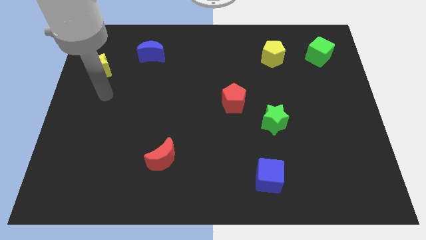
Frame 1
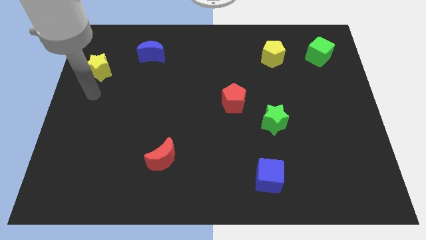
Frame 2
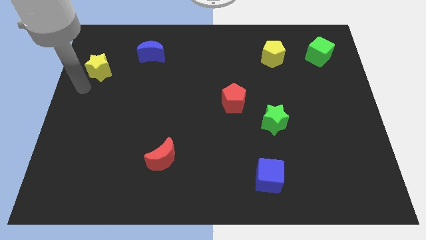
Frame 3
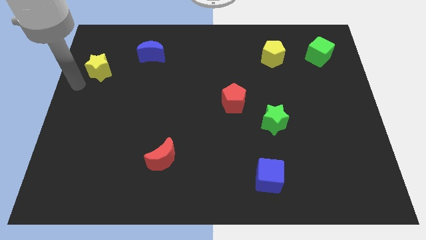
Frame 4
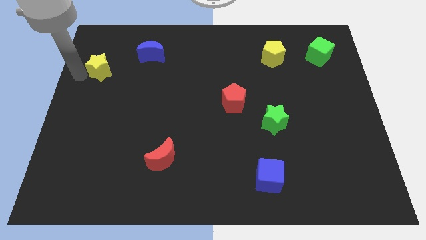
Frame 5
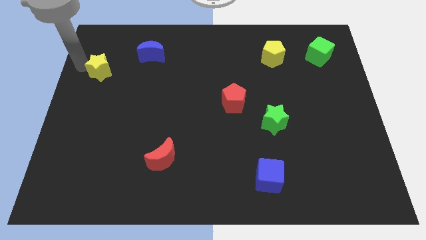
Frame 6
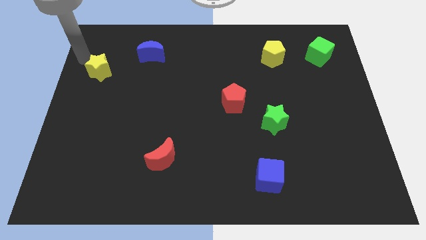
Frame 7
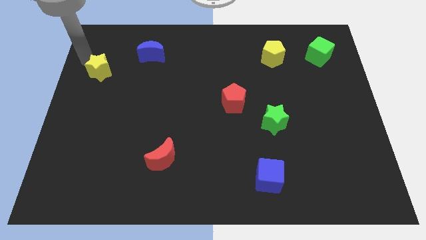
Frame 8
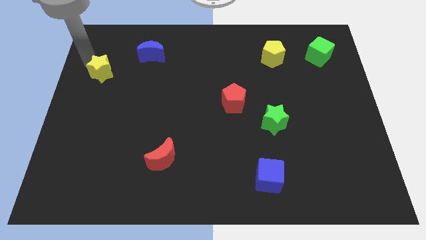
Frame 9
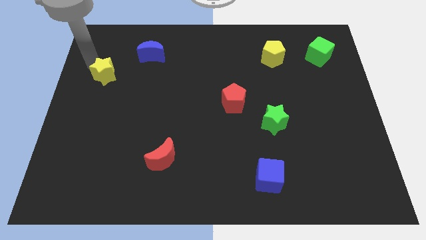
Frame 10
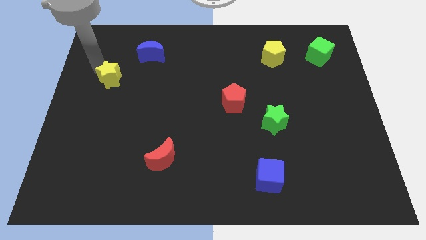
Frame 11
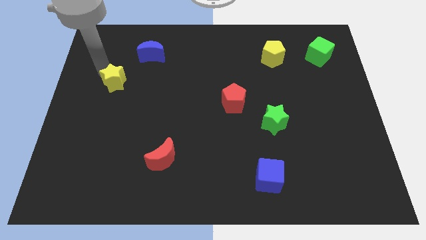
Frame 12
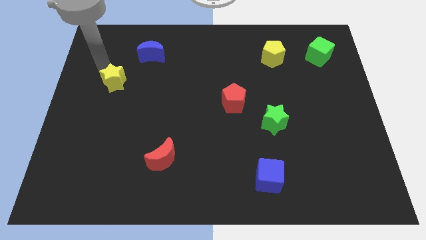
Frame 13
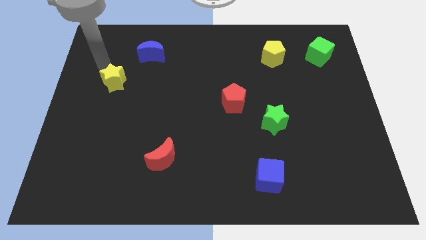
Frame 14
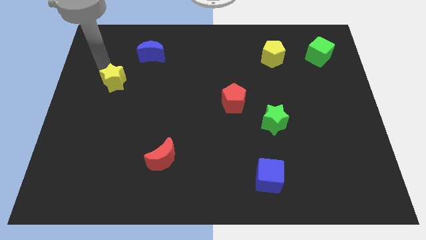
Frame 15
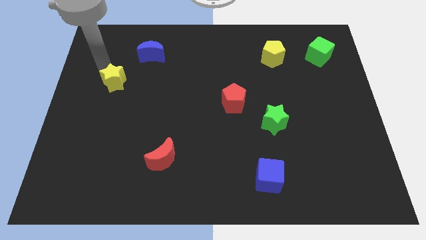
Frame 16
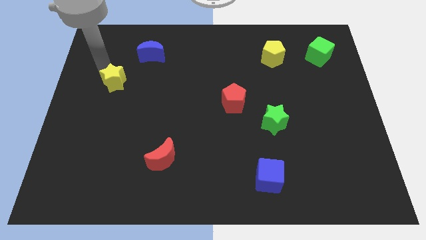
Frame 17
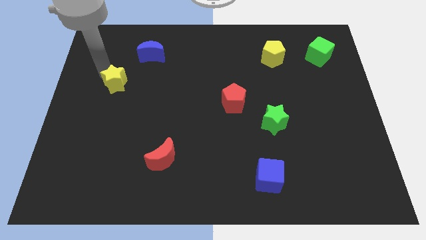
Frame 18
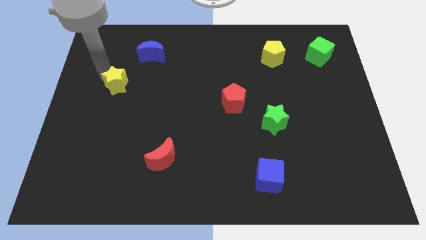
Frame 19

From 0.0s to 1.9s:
slightly slide the yellow star downwards and right

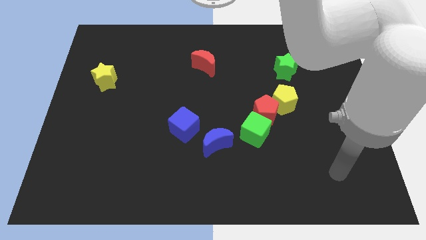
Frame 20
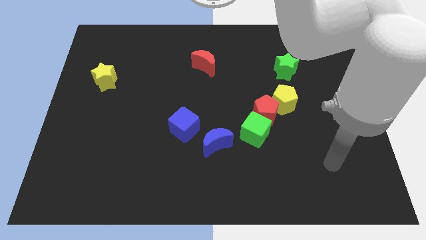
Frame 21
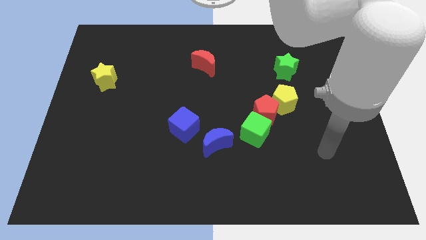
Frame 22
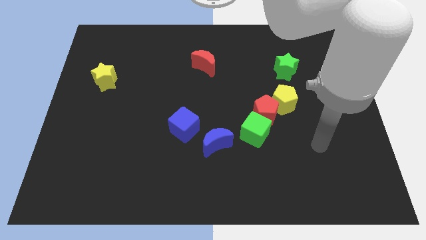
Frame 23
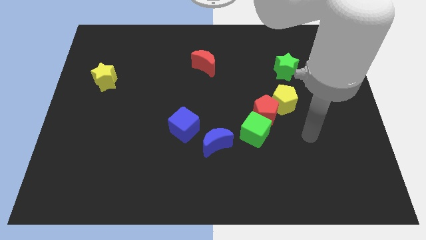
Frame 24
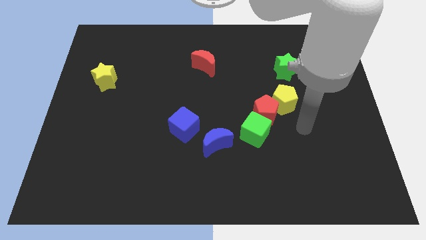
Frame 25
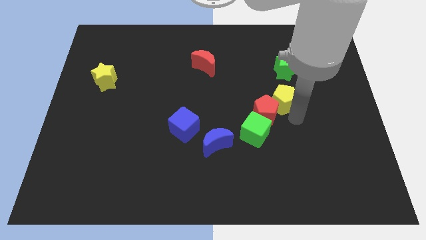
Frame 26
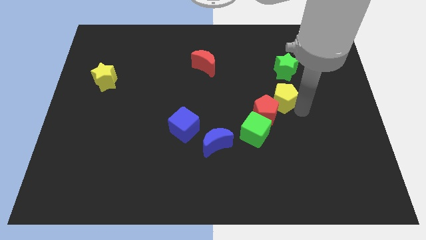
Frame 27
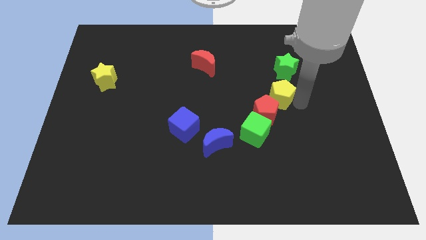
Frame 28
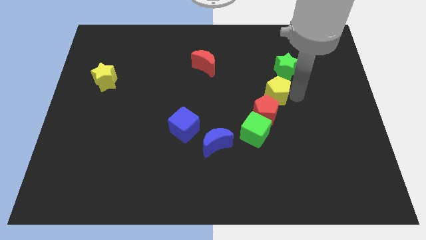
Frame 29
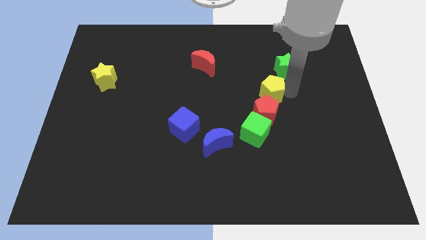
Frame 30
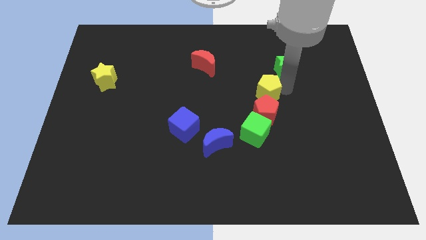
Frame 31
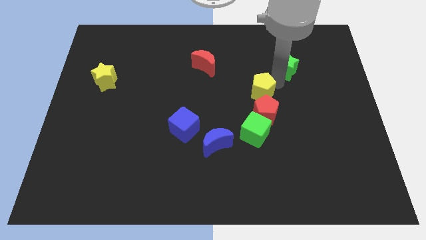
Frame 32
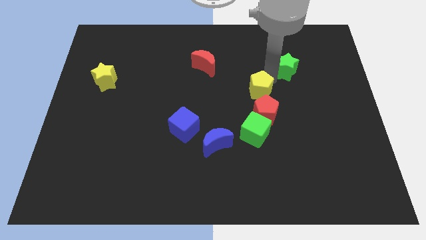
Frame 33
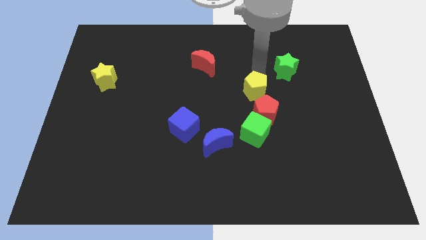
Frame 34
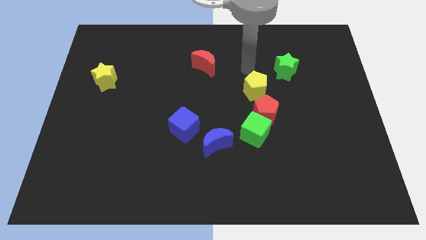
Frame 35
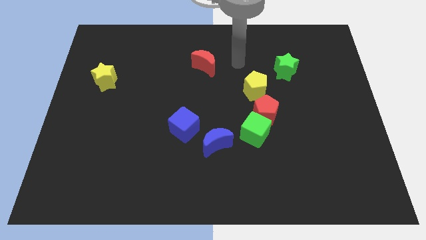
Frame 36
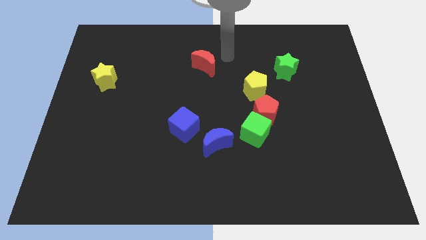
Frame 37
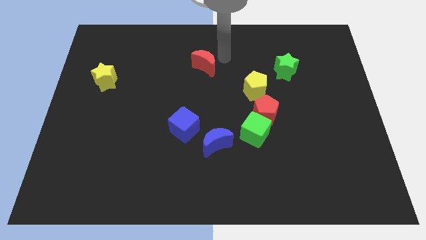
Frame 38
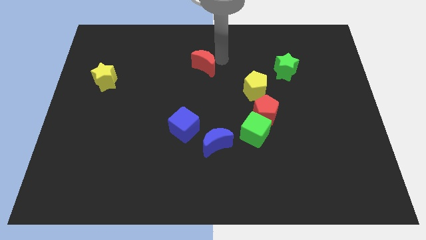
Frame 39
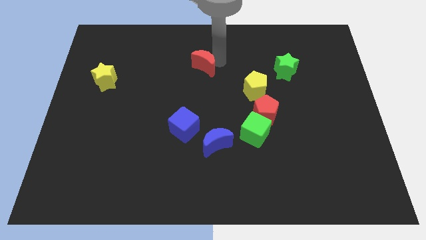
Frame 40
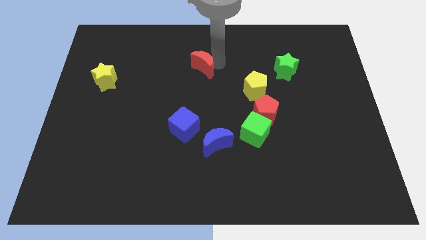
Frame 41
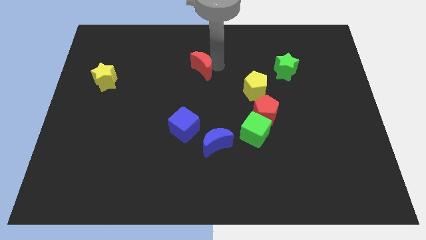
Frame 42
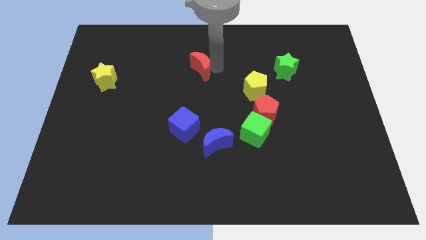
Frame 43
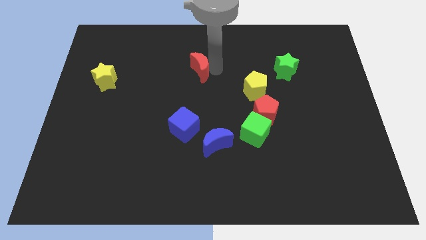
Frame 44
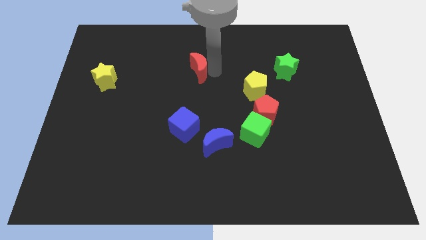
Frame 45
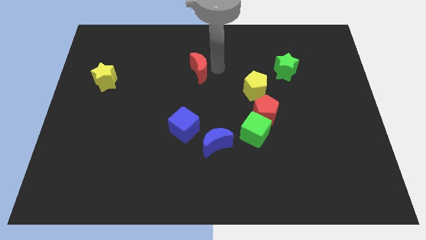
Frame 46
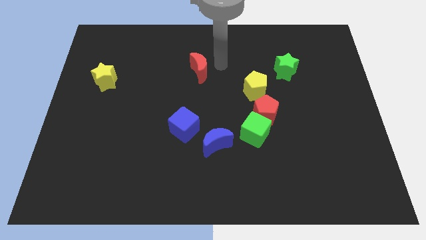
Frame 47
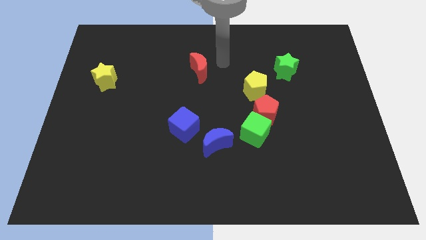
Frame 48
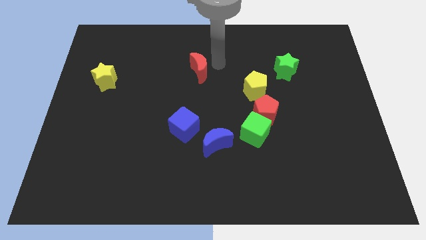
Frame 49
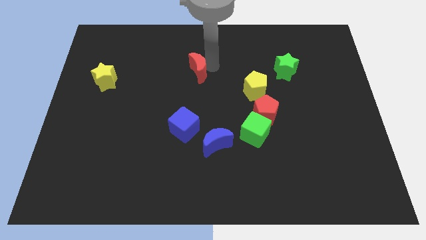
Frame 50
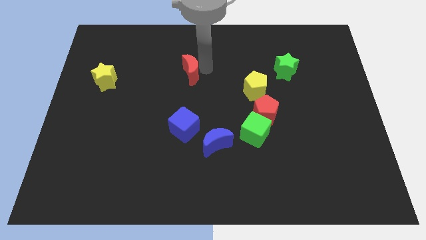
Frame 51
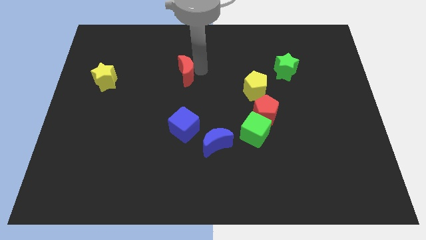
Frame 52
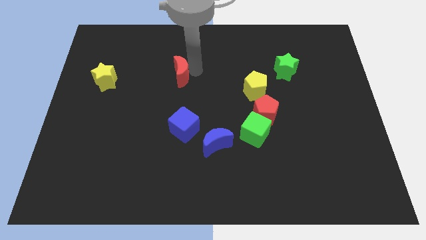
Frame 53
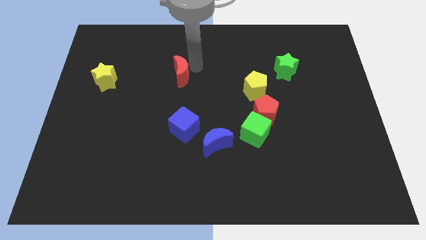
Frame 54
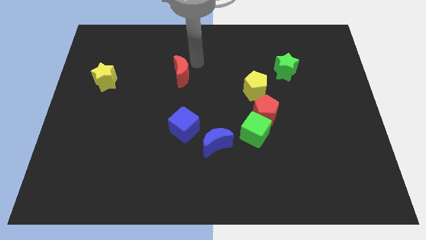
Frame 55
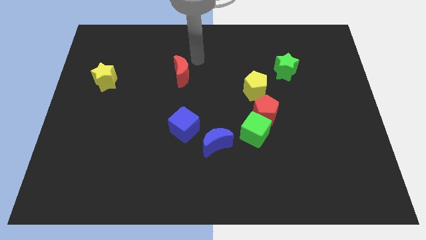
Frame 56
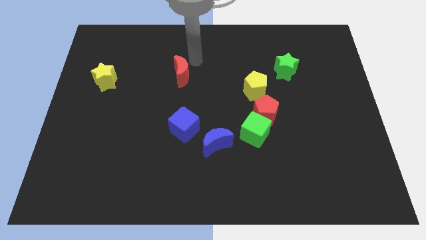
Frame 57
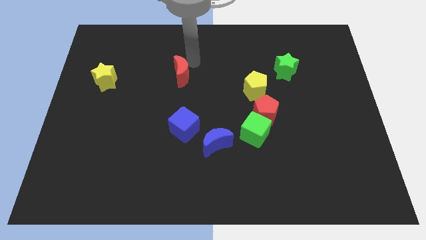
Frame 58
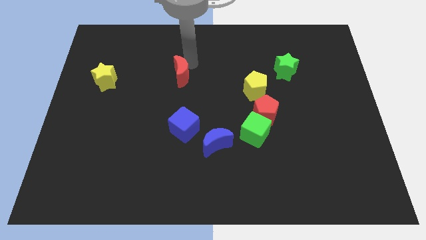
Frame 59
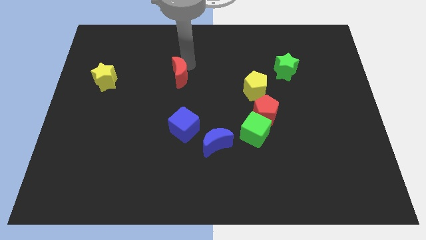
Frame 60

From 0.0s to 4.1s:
slightly slide the red moon diagonally down and left

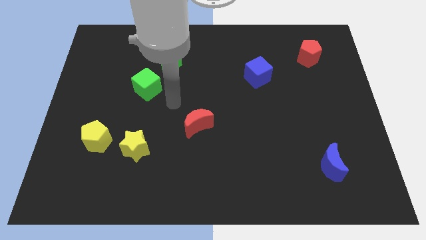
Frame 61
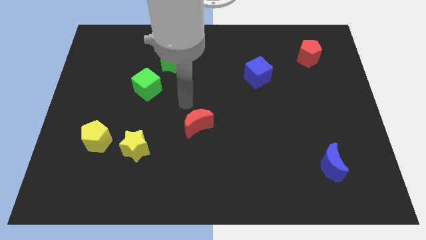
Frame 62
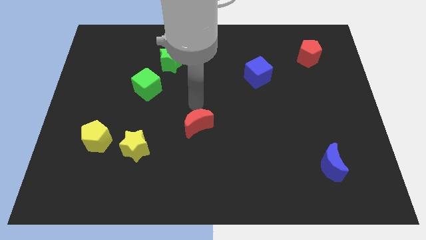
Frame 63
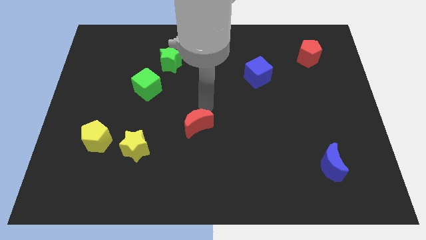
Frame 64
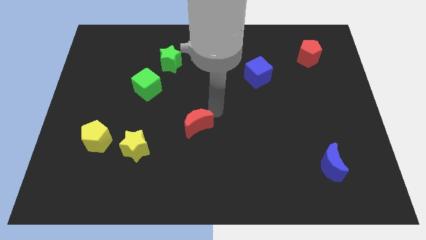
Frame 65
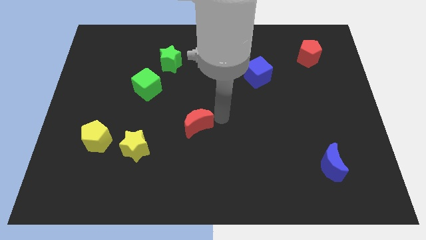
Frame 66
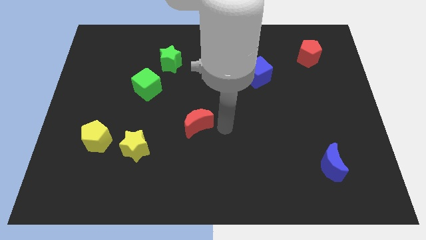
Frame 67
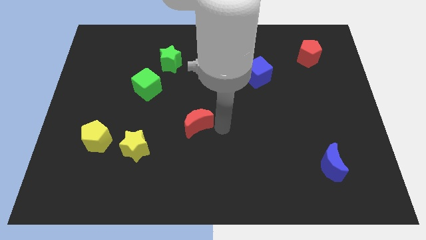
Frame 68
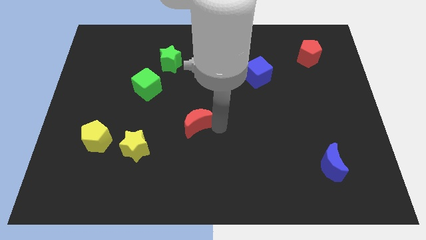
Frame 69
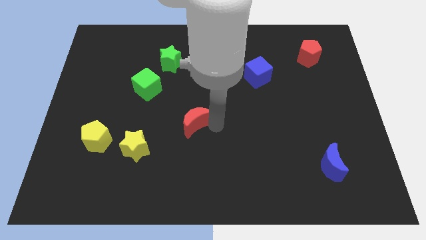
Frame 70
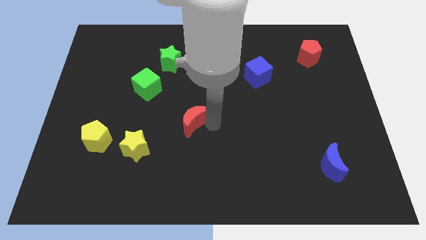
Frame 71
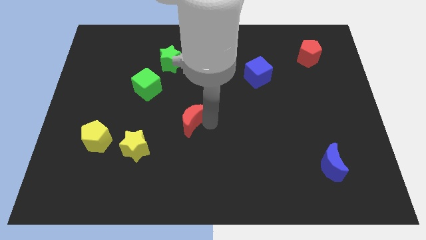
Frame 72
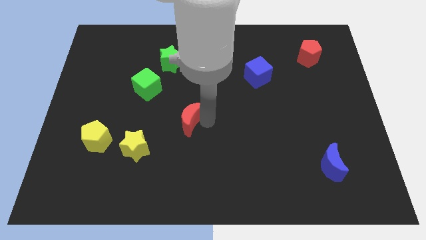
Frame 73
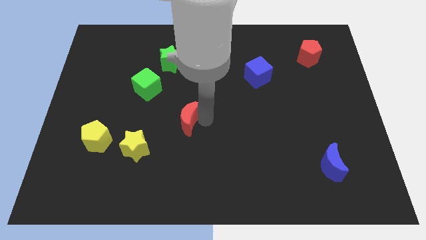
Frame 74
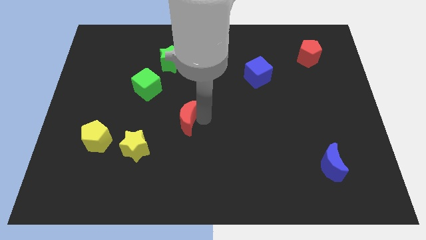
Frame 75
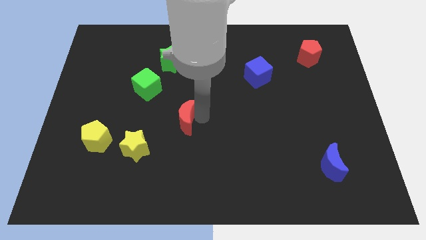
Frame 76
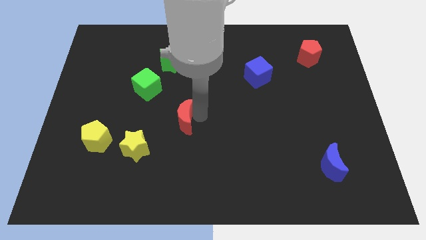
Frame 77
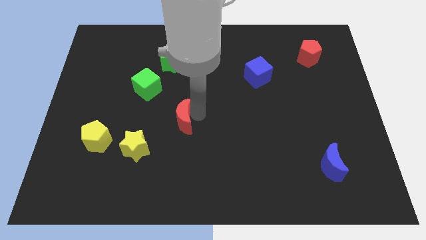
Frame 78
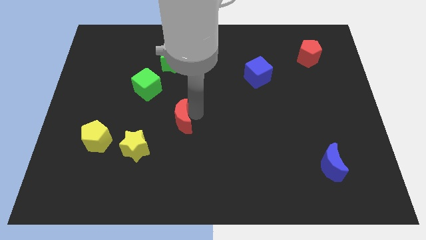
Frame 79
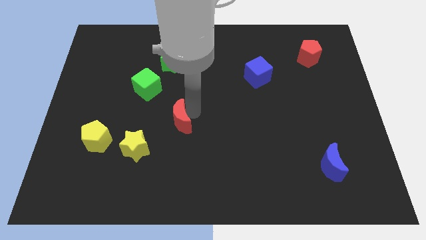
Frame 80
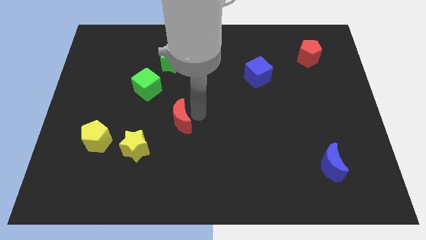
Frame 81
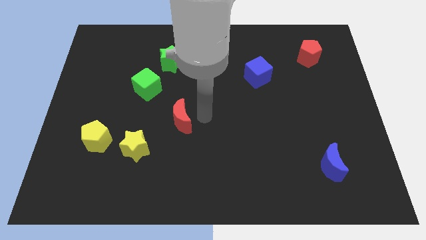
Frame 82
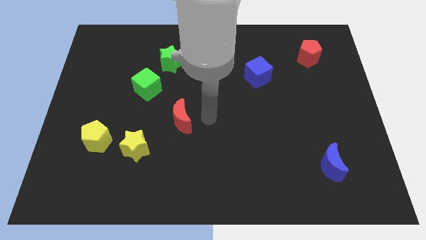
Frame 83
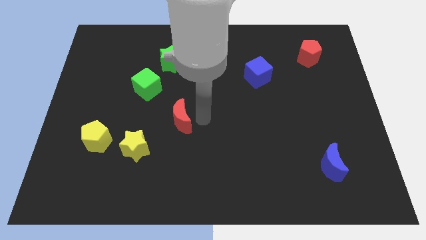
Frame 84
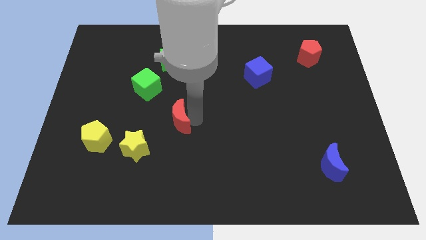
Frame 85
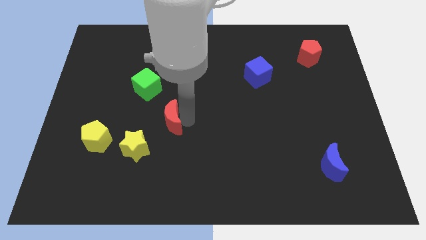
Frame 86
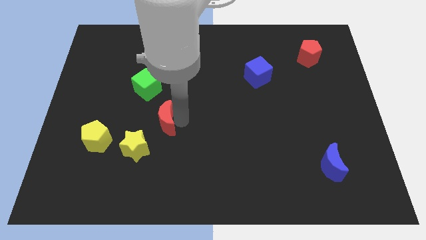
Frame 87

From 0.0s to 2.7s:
move the red moon left somewhat
